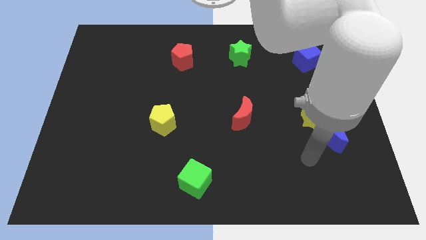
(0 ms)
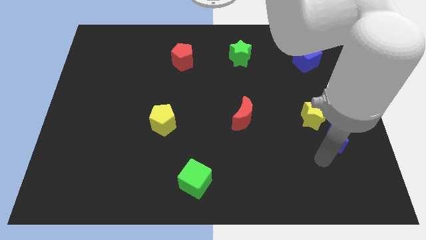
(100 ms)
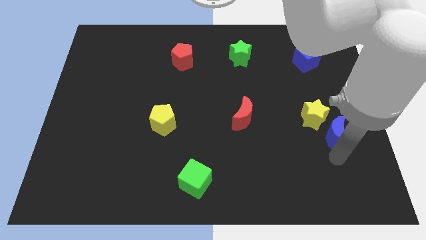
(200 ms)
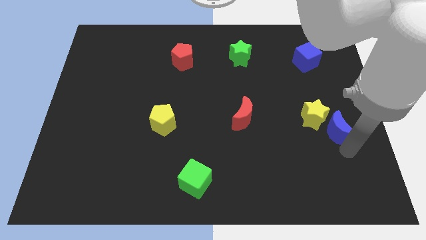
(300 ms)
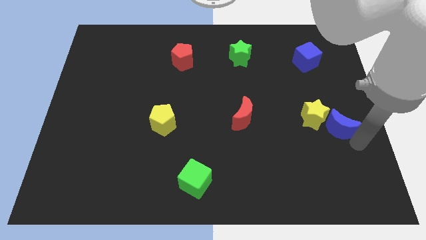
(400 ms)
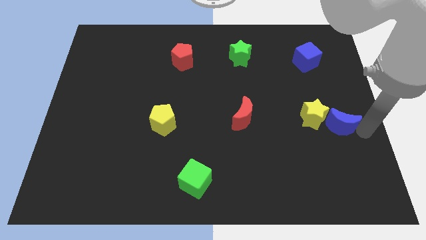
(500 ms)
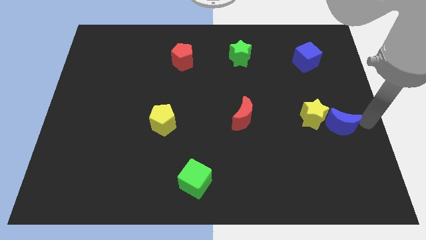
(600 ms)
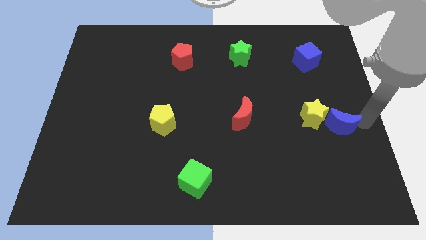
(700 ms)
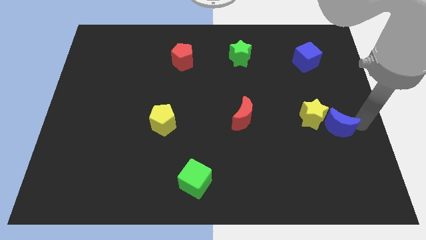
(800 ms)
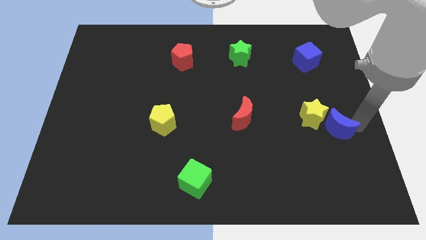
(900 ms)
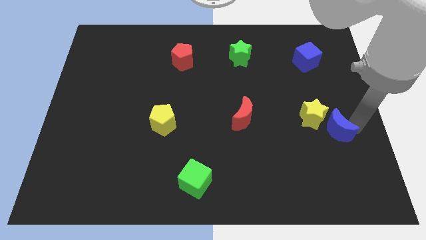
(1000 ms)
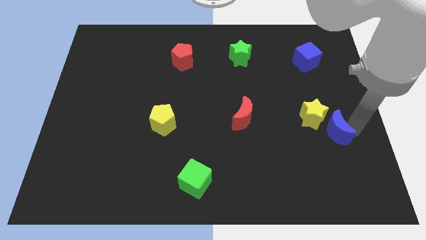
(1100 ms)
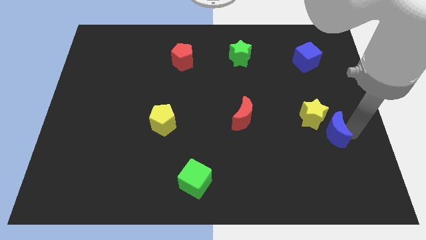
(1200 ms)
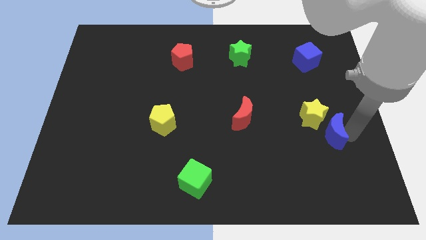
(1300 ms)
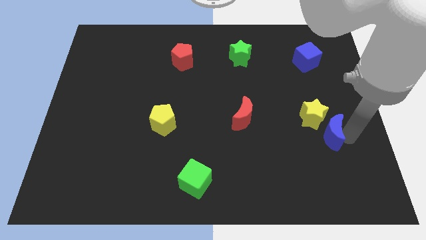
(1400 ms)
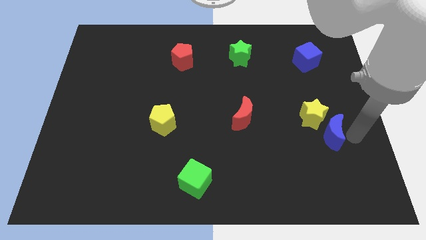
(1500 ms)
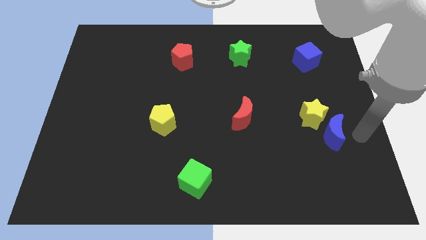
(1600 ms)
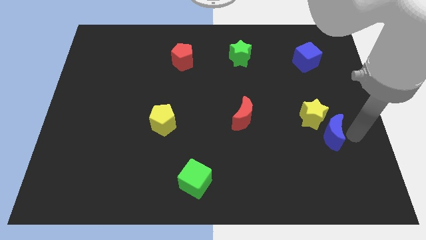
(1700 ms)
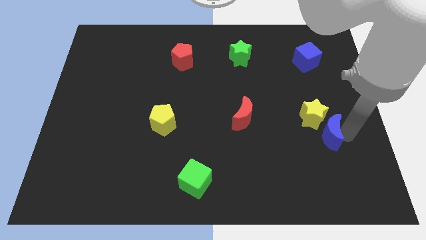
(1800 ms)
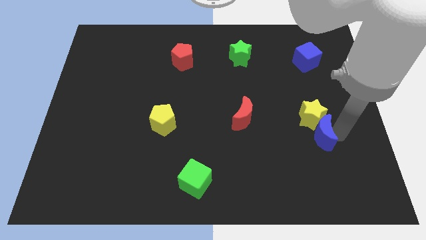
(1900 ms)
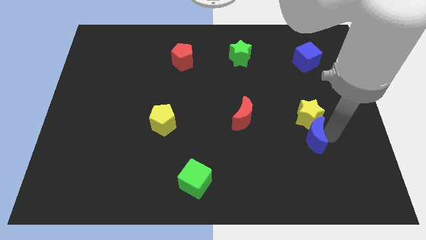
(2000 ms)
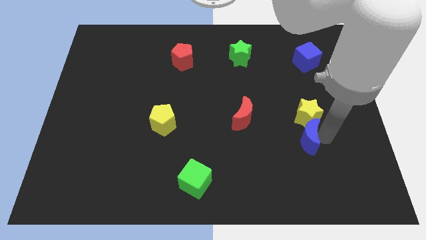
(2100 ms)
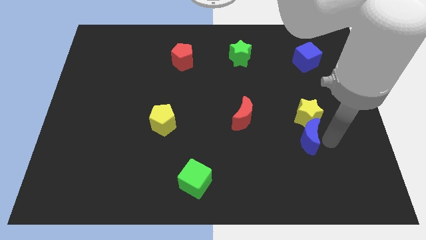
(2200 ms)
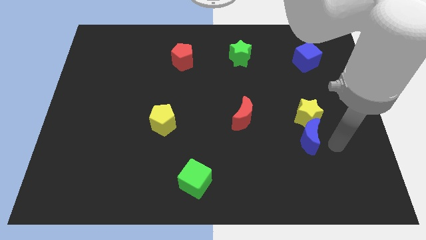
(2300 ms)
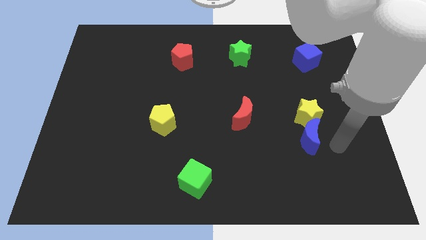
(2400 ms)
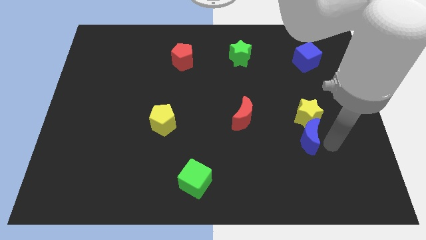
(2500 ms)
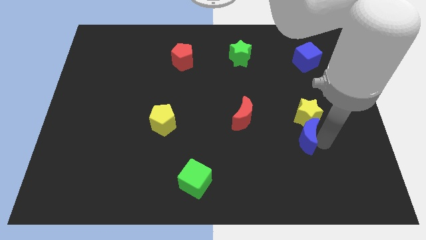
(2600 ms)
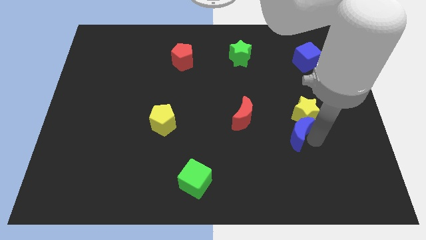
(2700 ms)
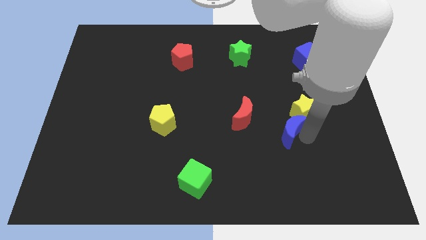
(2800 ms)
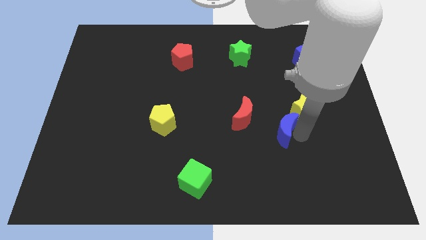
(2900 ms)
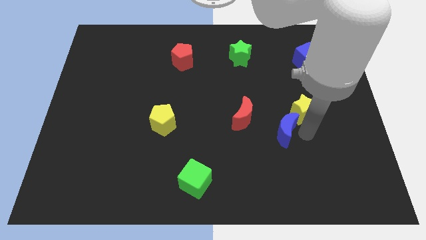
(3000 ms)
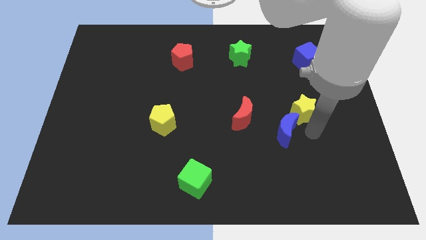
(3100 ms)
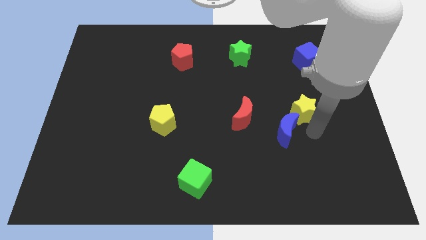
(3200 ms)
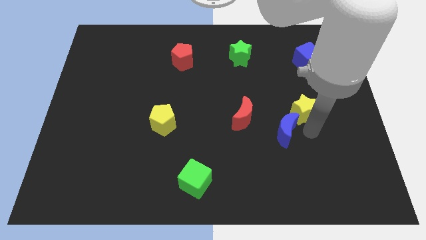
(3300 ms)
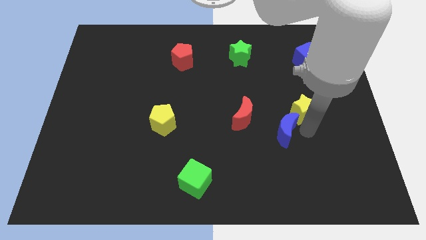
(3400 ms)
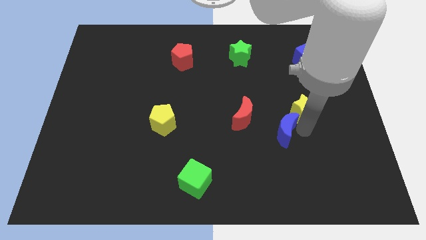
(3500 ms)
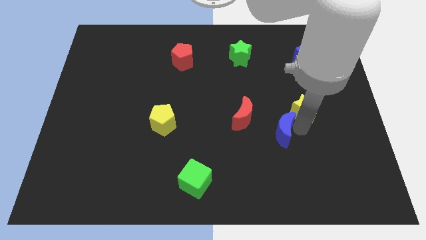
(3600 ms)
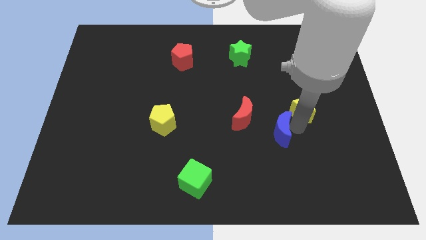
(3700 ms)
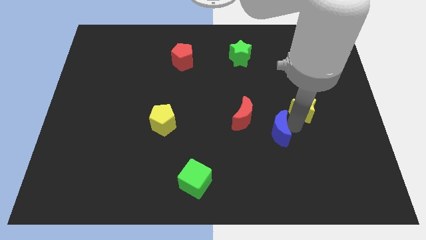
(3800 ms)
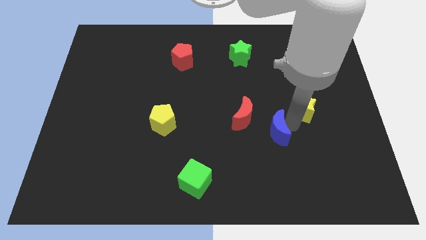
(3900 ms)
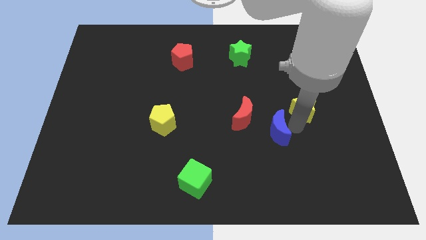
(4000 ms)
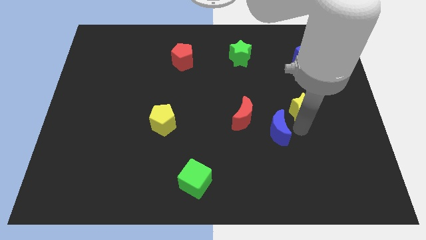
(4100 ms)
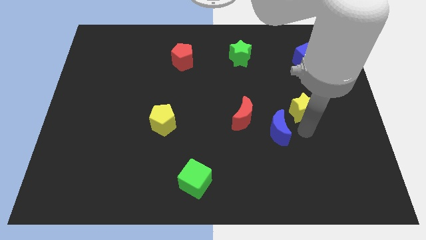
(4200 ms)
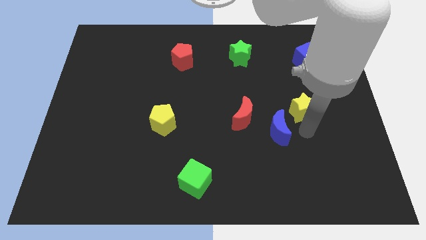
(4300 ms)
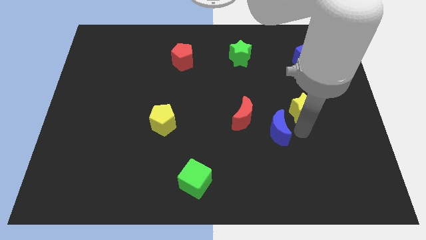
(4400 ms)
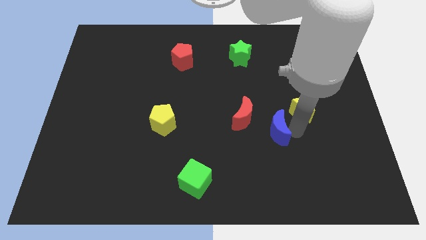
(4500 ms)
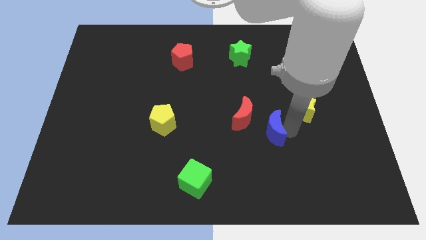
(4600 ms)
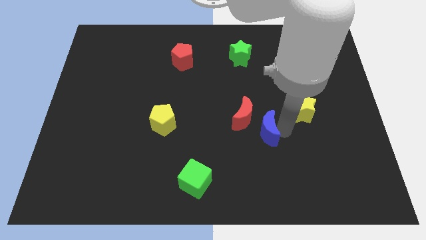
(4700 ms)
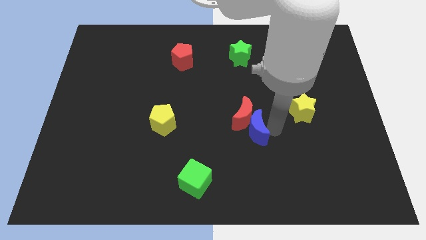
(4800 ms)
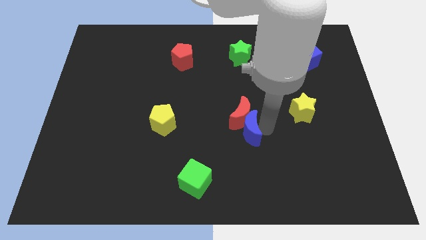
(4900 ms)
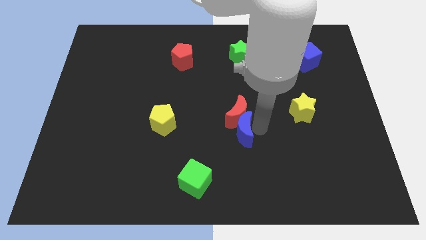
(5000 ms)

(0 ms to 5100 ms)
move the blue moon to the left

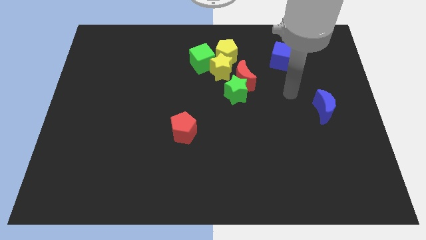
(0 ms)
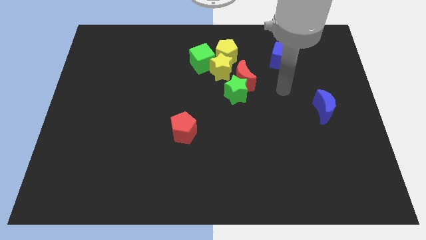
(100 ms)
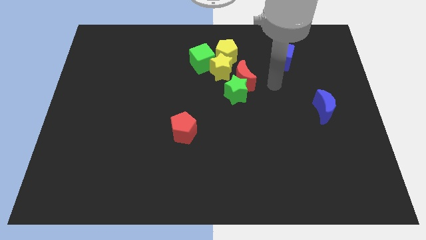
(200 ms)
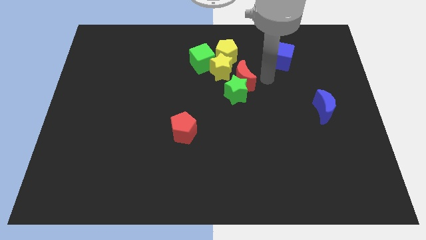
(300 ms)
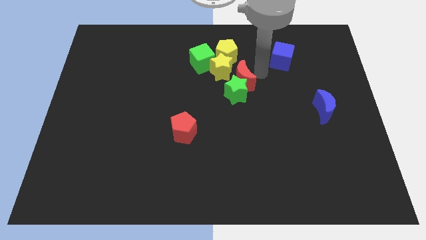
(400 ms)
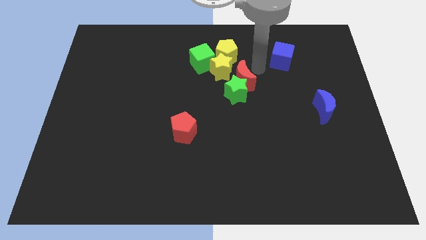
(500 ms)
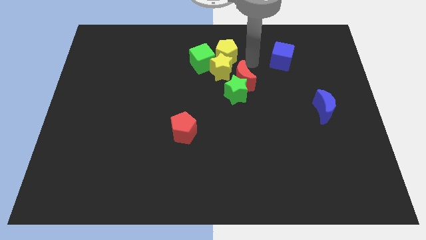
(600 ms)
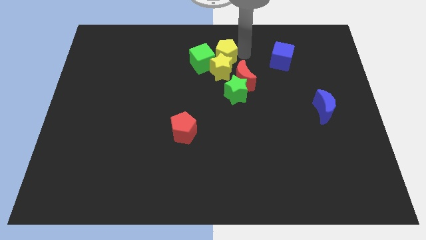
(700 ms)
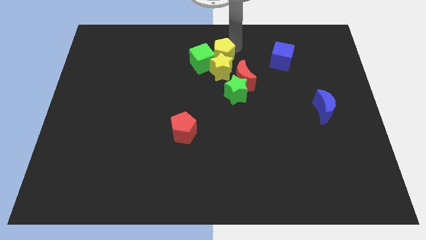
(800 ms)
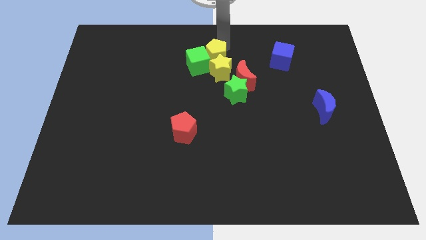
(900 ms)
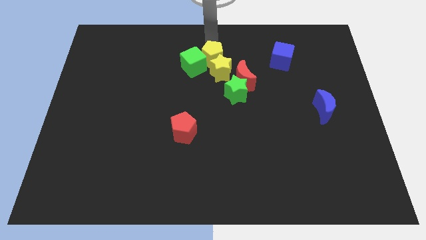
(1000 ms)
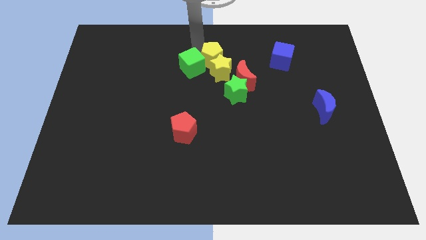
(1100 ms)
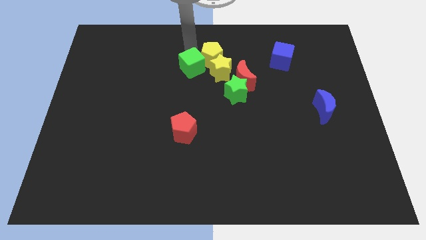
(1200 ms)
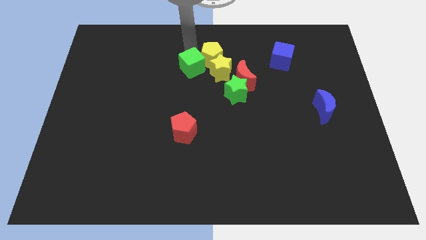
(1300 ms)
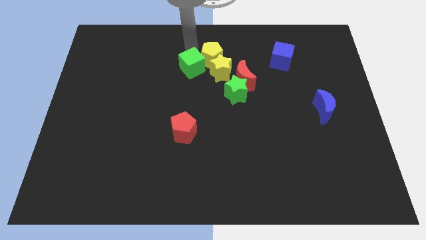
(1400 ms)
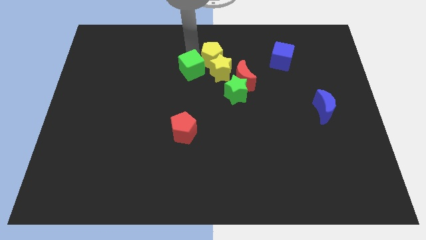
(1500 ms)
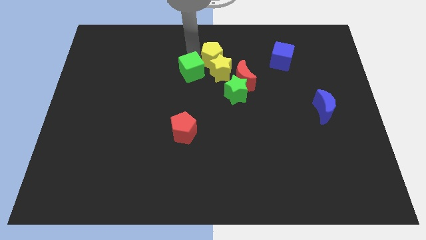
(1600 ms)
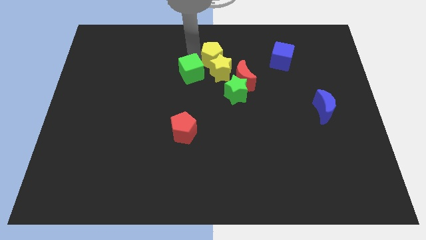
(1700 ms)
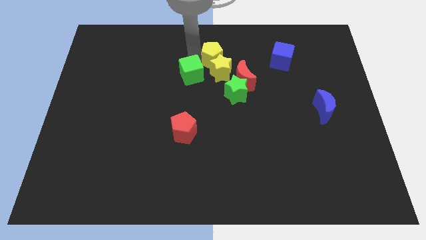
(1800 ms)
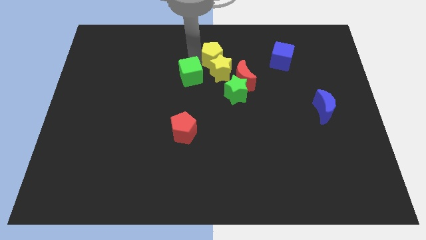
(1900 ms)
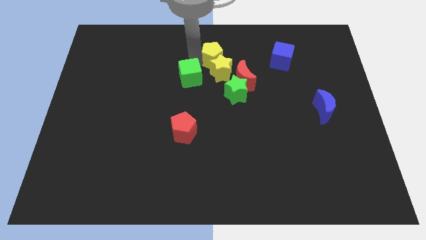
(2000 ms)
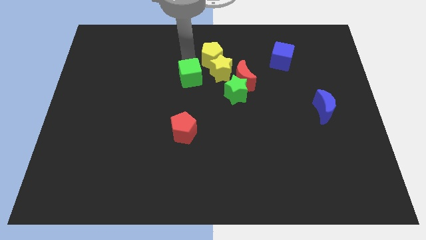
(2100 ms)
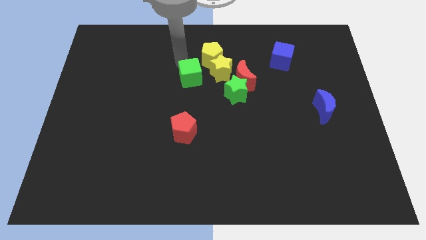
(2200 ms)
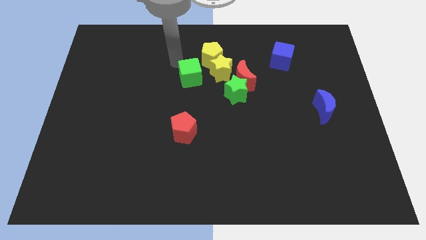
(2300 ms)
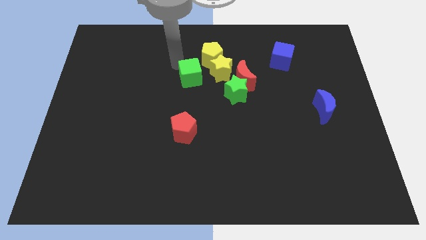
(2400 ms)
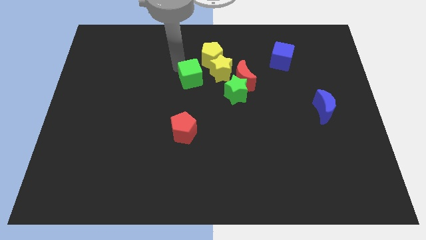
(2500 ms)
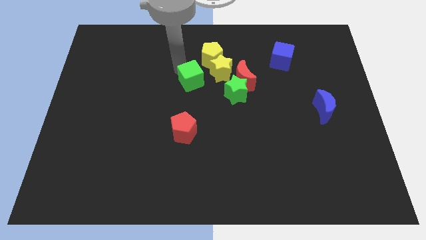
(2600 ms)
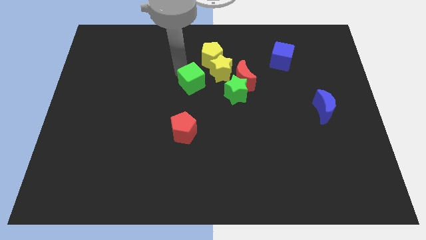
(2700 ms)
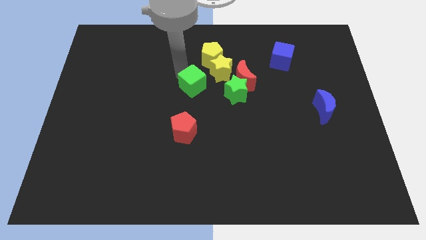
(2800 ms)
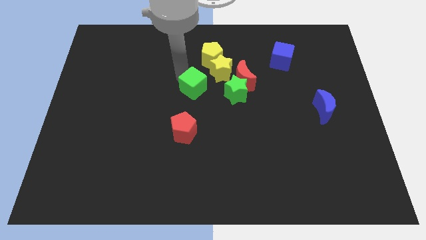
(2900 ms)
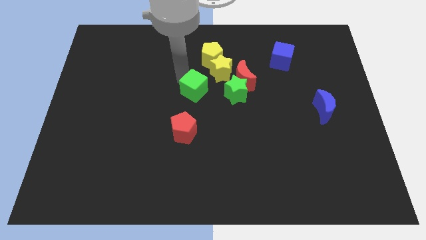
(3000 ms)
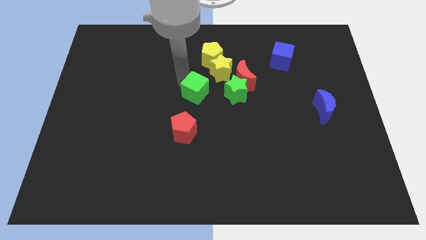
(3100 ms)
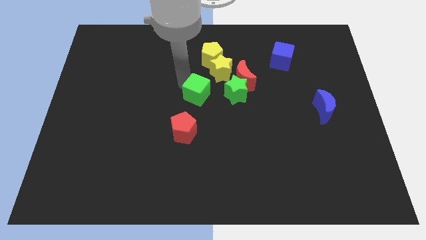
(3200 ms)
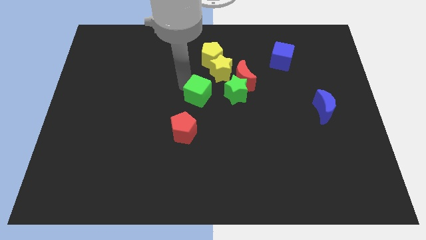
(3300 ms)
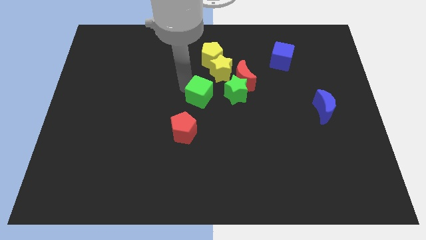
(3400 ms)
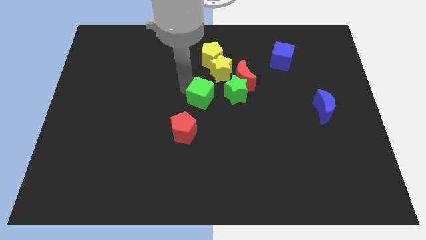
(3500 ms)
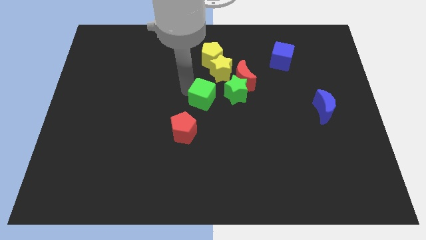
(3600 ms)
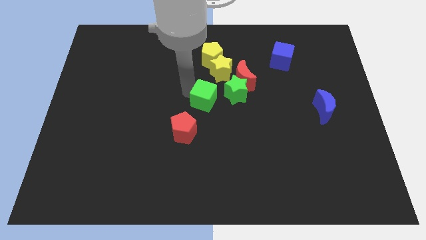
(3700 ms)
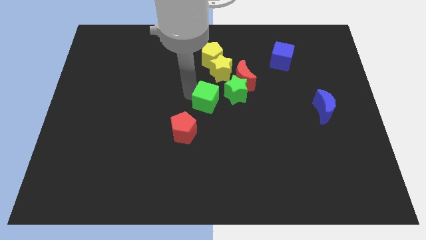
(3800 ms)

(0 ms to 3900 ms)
slide the green cube down and to the right a bit
